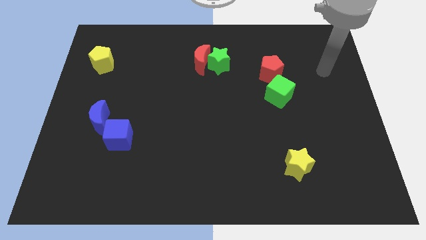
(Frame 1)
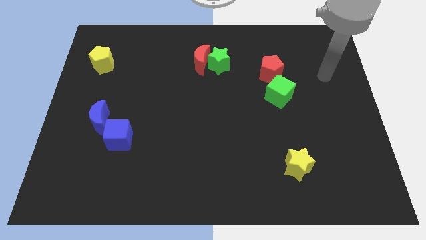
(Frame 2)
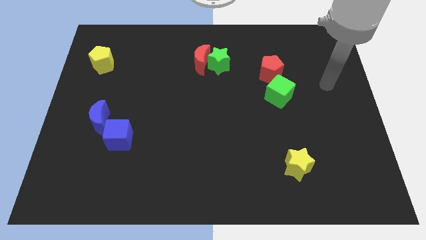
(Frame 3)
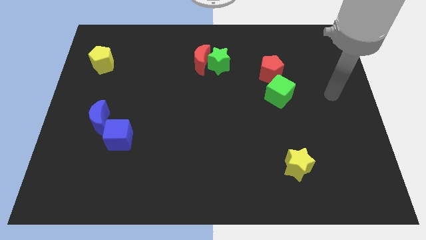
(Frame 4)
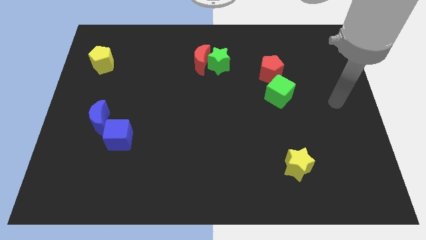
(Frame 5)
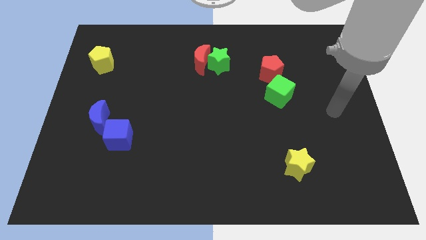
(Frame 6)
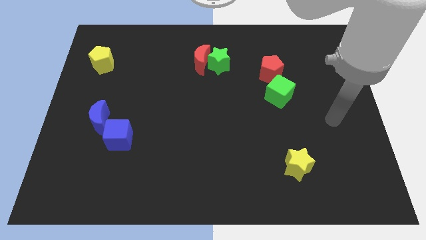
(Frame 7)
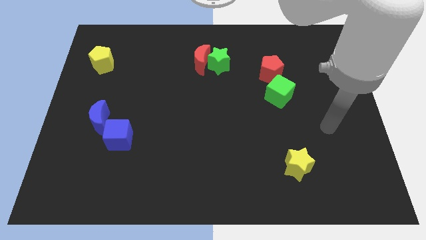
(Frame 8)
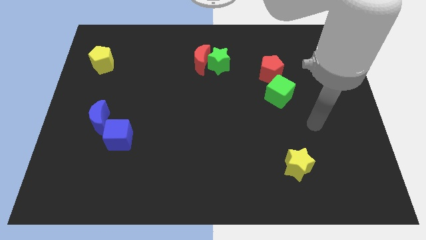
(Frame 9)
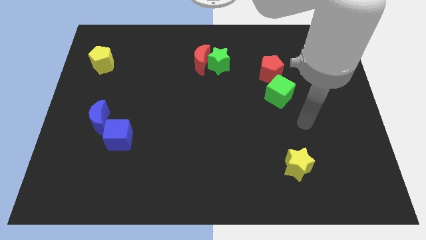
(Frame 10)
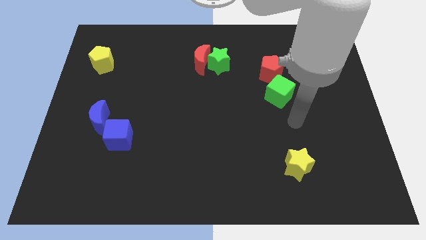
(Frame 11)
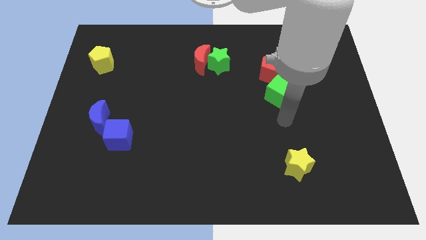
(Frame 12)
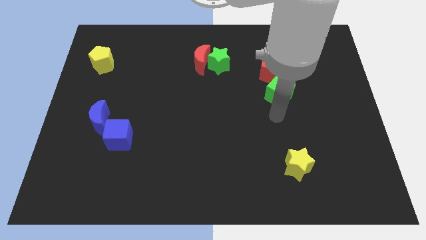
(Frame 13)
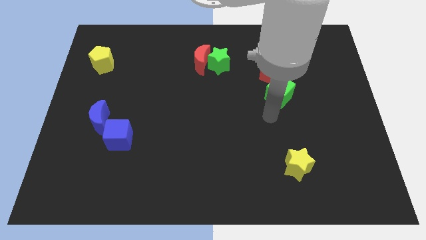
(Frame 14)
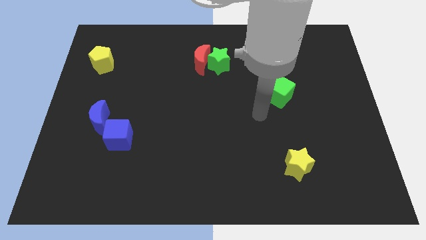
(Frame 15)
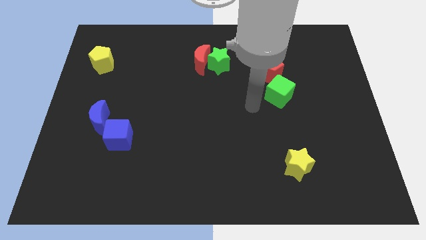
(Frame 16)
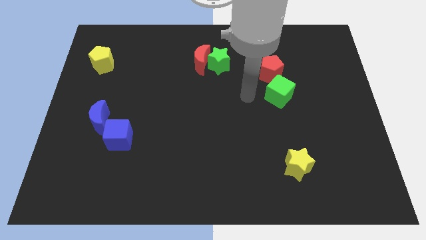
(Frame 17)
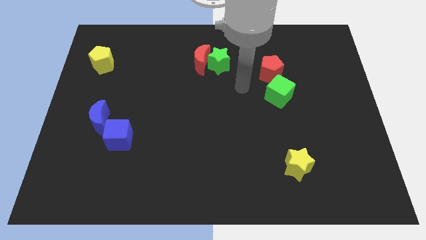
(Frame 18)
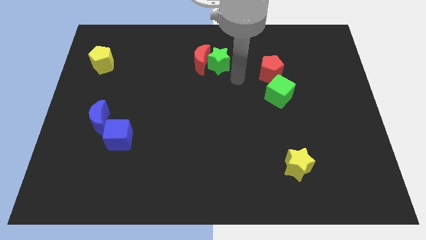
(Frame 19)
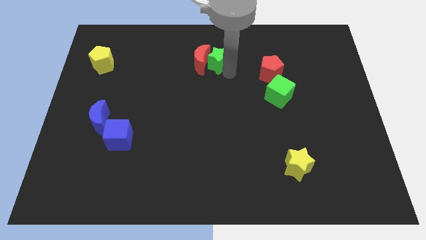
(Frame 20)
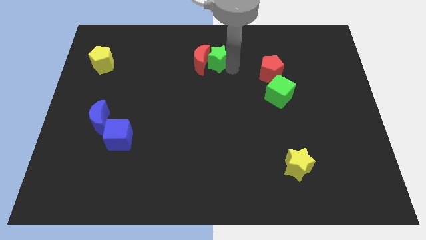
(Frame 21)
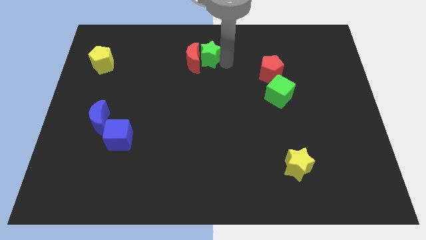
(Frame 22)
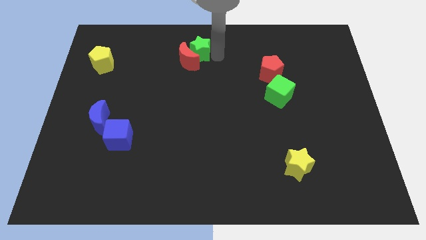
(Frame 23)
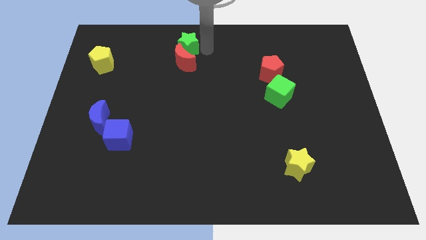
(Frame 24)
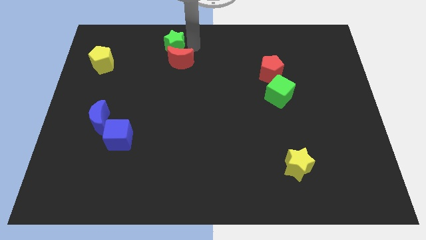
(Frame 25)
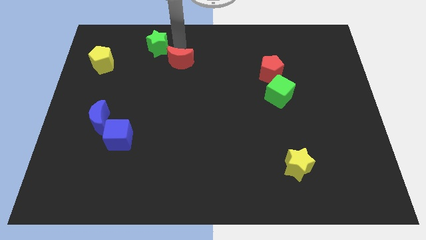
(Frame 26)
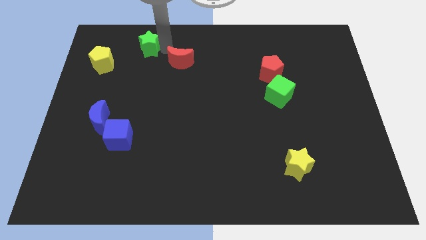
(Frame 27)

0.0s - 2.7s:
separate the red moon from the green star

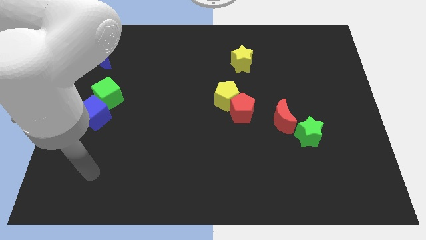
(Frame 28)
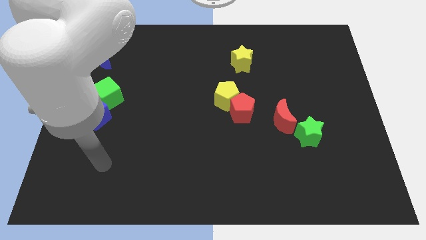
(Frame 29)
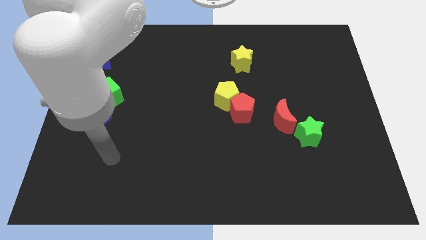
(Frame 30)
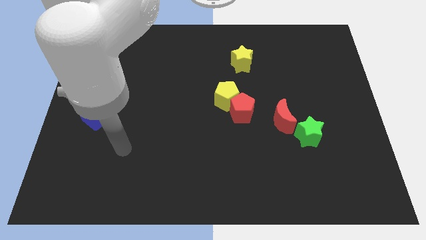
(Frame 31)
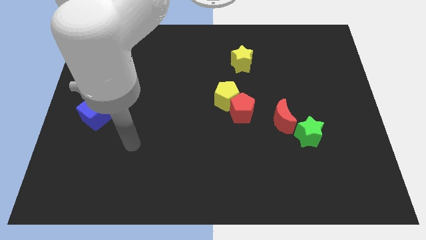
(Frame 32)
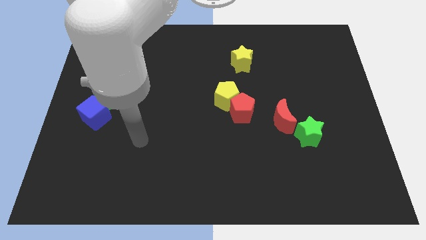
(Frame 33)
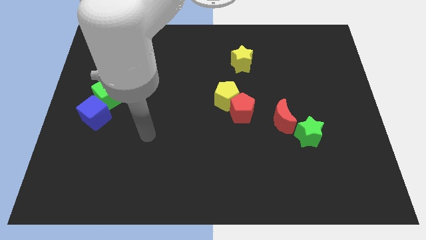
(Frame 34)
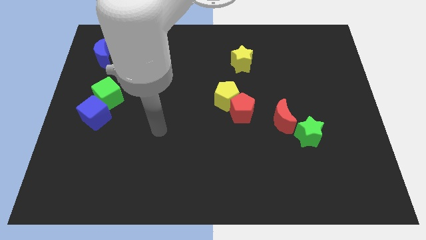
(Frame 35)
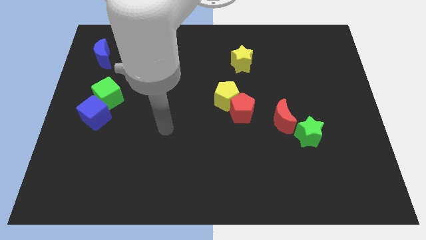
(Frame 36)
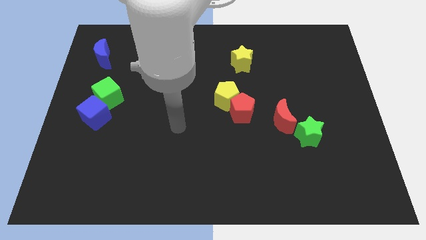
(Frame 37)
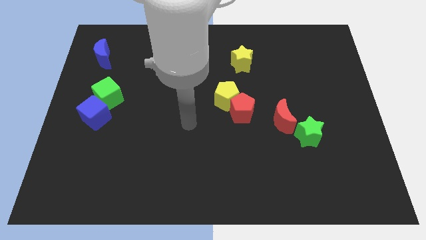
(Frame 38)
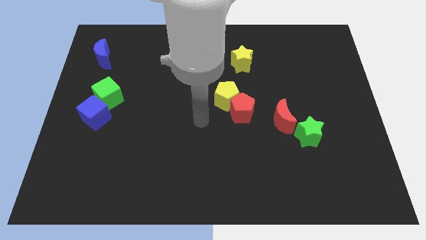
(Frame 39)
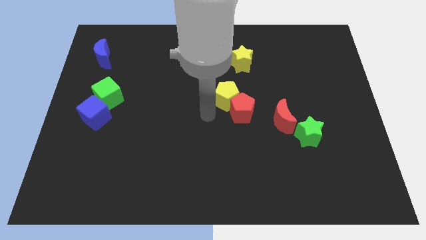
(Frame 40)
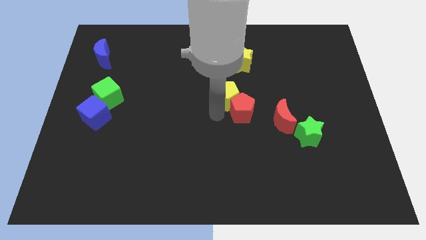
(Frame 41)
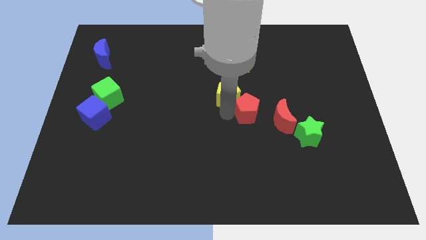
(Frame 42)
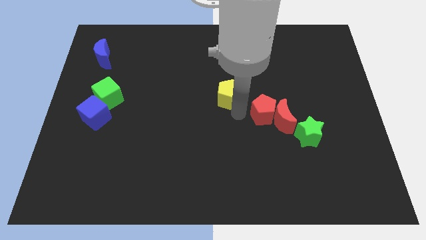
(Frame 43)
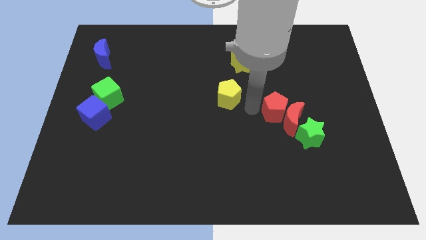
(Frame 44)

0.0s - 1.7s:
pull the yellow pentagon apart from the red pentagon

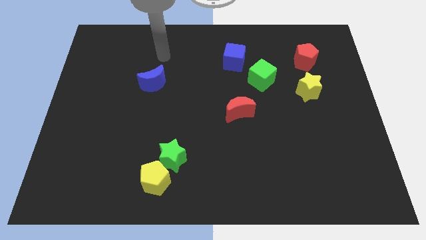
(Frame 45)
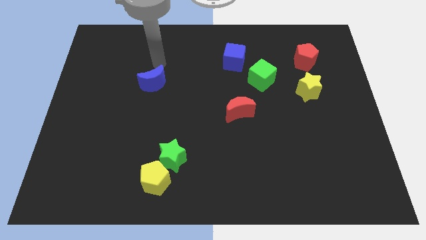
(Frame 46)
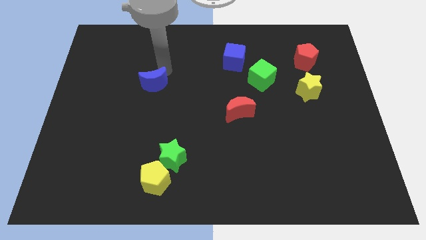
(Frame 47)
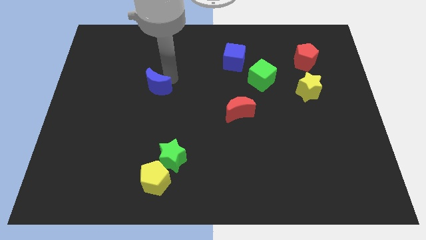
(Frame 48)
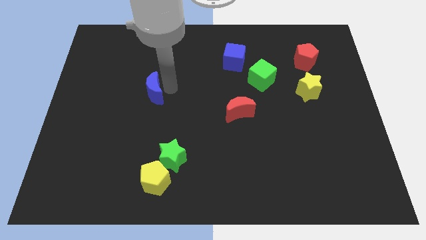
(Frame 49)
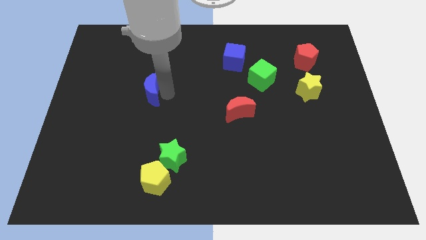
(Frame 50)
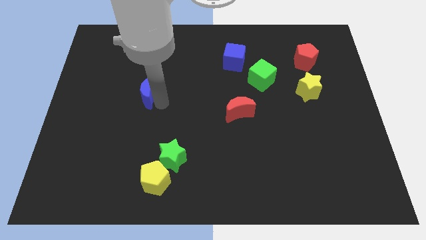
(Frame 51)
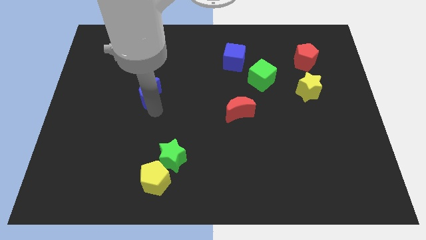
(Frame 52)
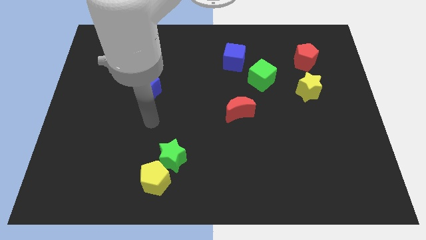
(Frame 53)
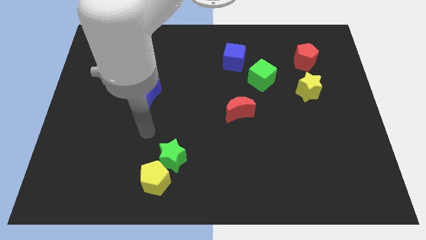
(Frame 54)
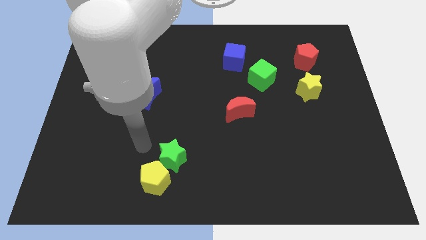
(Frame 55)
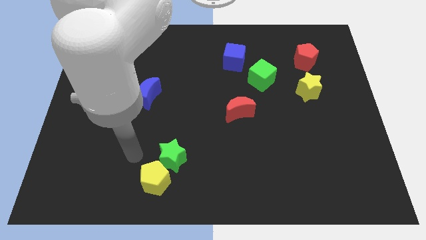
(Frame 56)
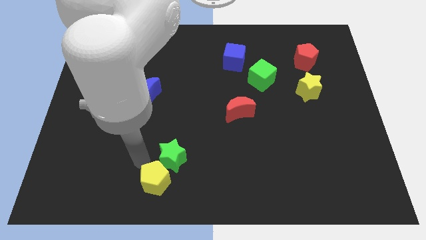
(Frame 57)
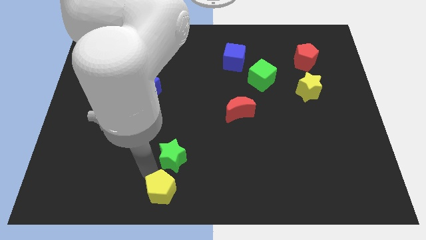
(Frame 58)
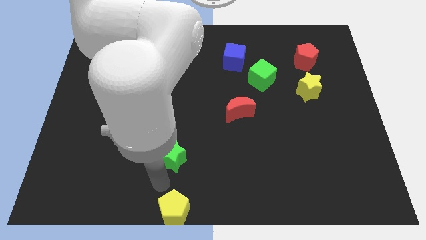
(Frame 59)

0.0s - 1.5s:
separate the green star from the yellow pentagon

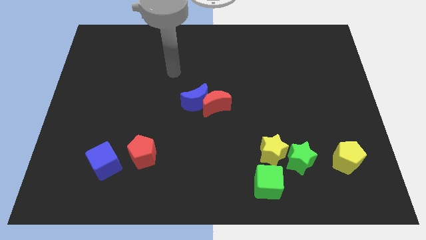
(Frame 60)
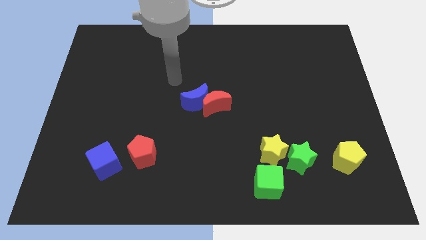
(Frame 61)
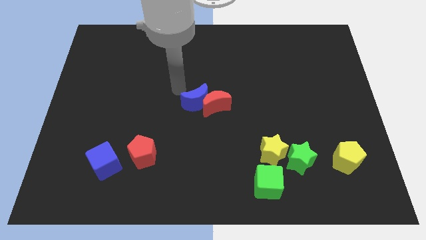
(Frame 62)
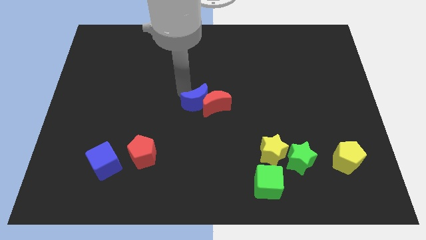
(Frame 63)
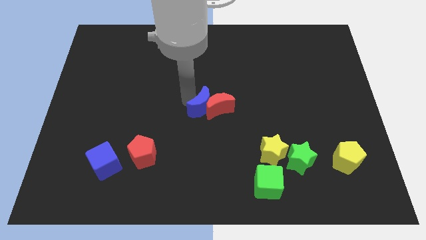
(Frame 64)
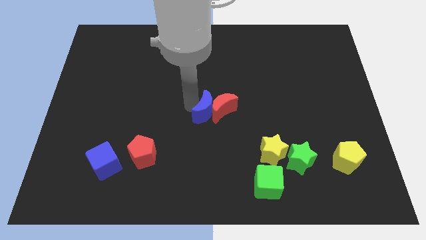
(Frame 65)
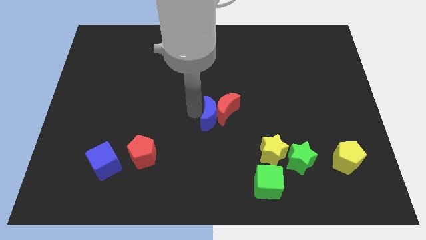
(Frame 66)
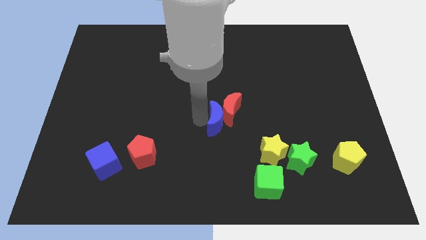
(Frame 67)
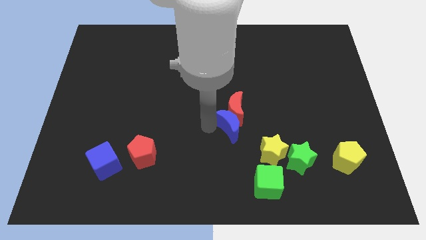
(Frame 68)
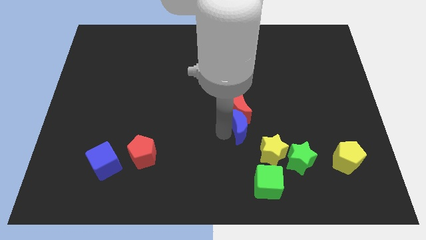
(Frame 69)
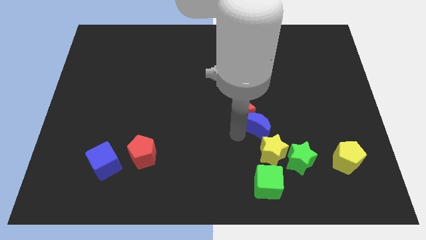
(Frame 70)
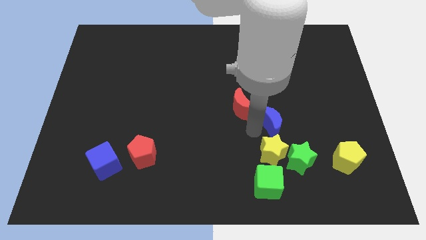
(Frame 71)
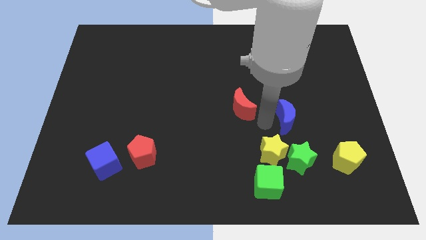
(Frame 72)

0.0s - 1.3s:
separate the red moon from the blue moon

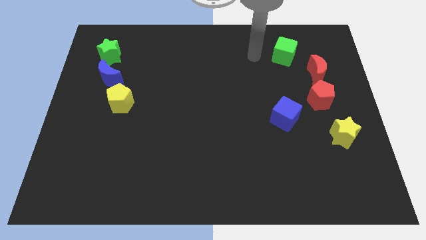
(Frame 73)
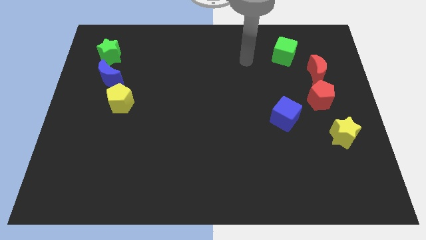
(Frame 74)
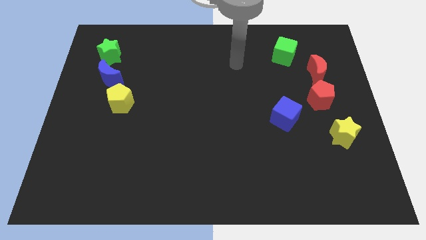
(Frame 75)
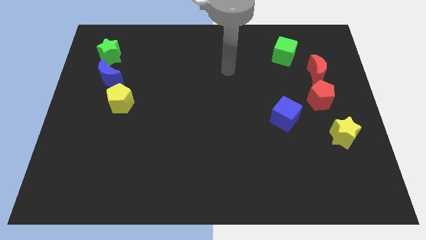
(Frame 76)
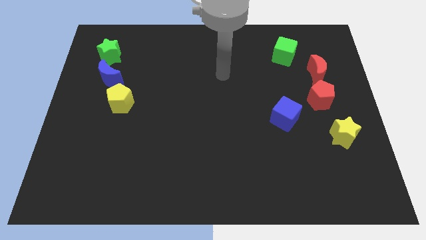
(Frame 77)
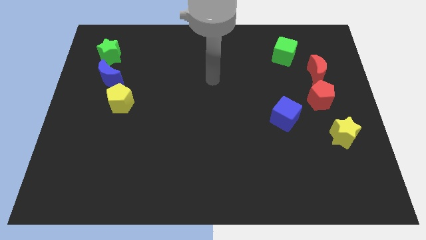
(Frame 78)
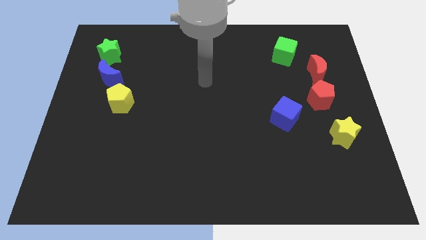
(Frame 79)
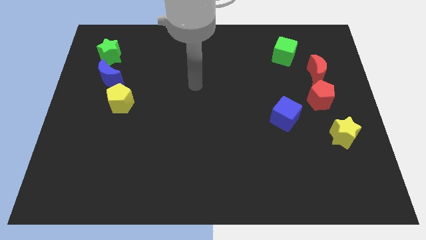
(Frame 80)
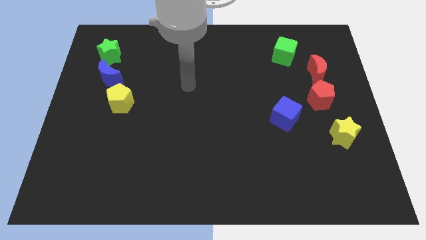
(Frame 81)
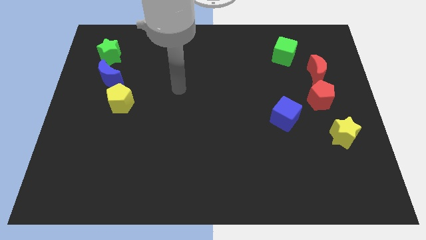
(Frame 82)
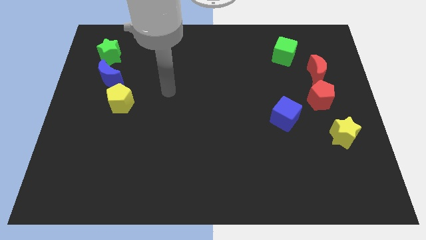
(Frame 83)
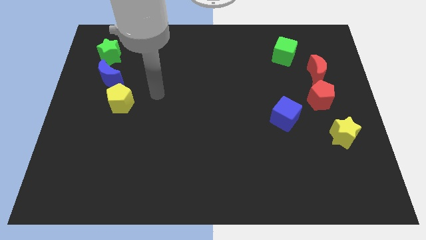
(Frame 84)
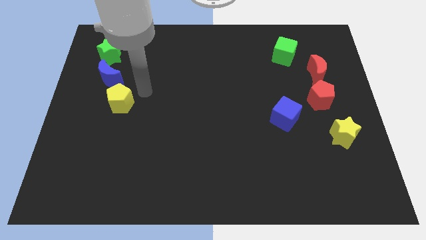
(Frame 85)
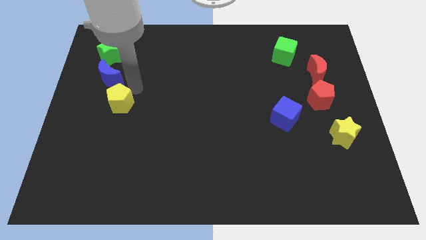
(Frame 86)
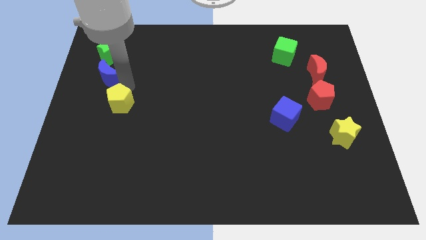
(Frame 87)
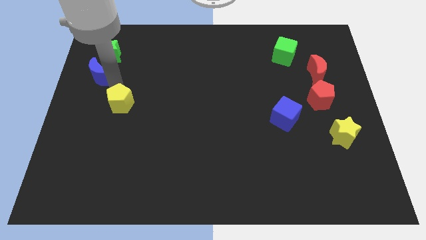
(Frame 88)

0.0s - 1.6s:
move the yellow pentagon away from the blue moon

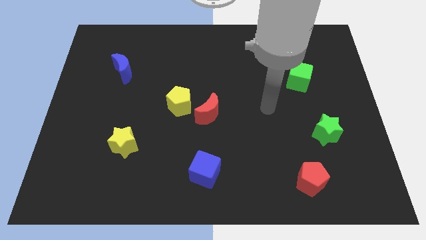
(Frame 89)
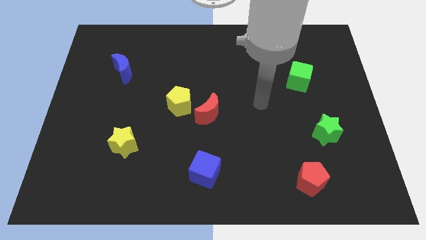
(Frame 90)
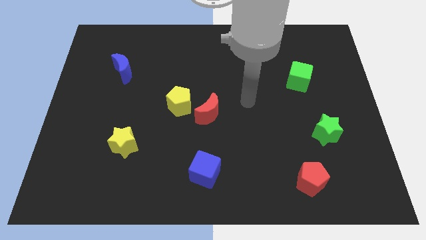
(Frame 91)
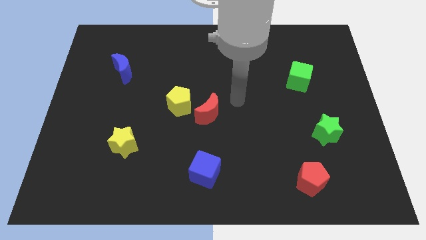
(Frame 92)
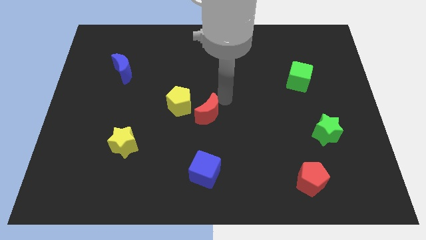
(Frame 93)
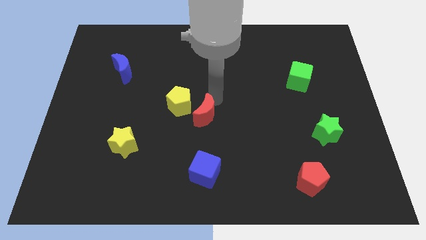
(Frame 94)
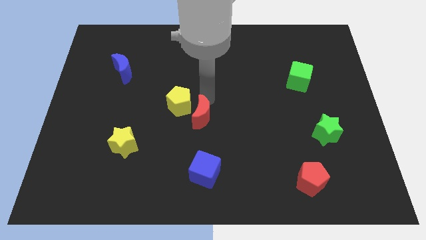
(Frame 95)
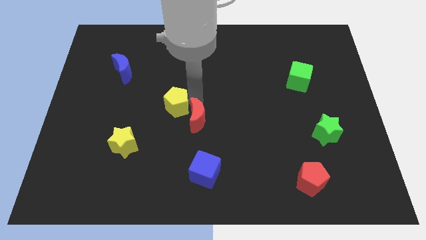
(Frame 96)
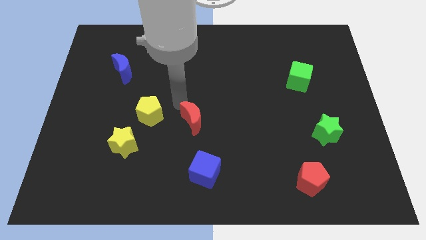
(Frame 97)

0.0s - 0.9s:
separate the red moon from the yellow pentagon
